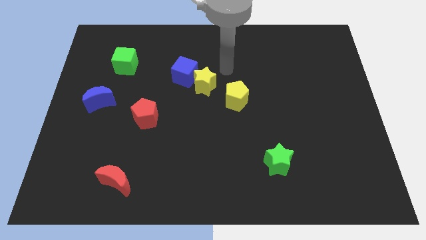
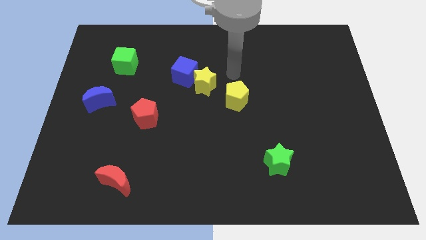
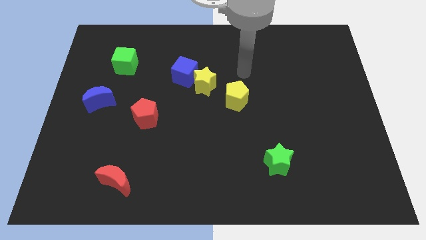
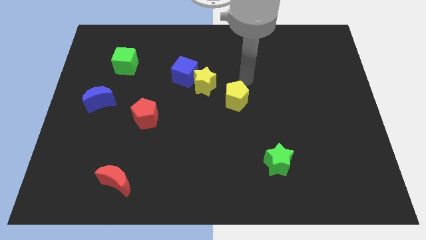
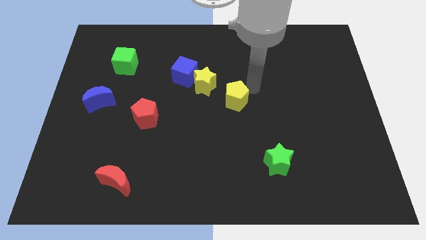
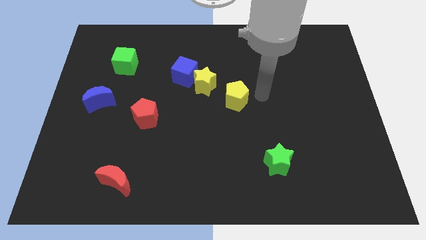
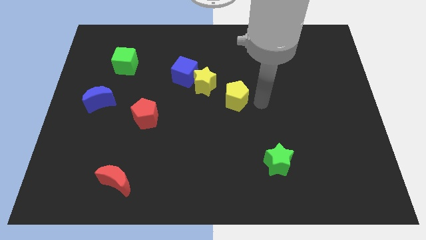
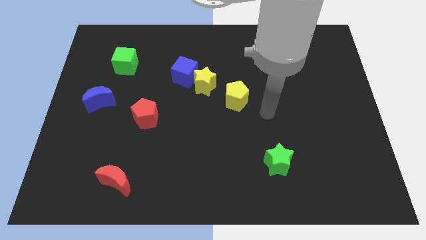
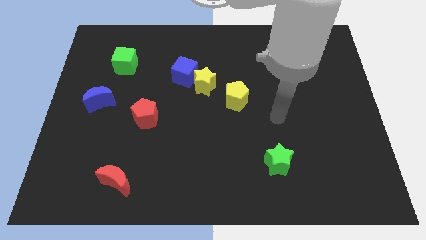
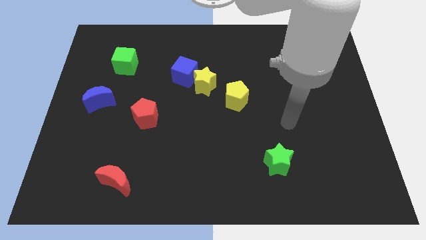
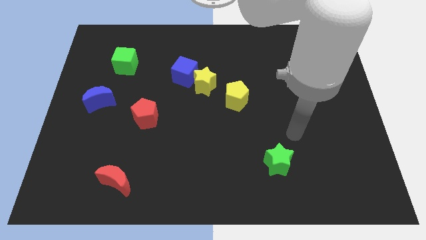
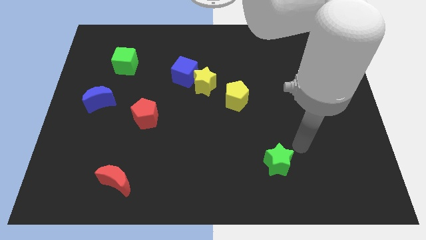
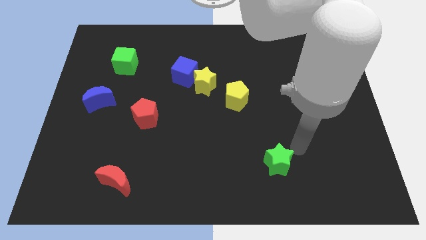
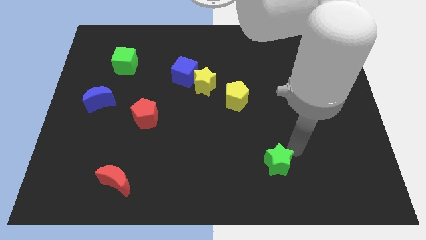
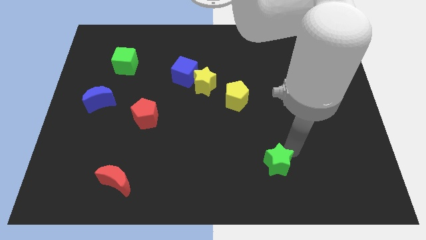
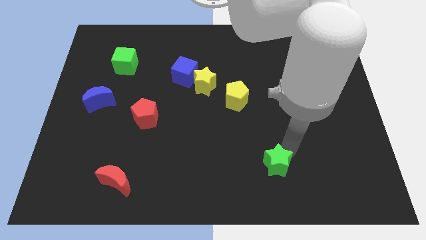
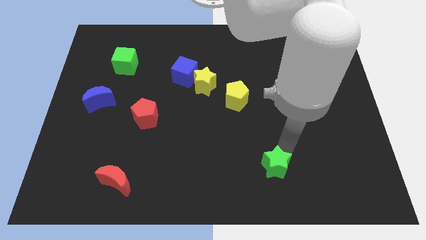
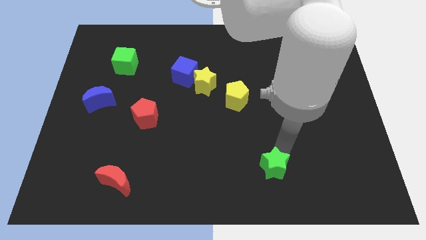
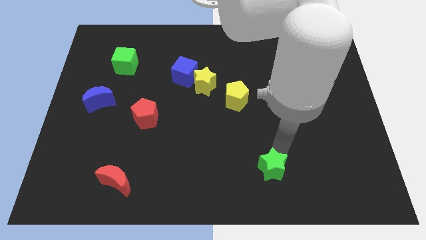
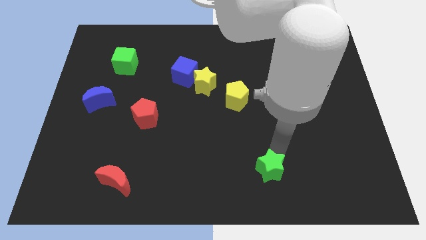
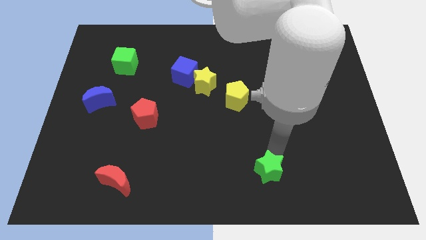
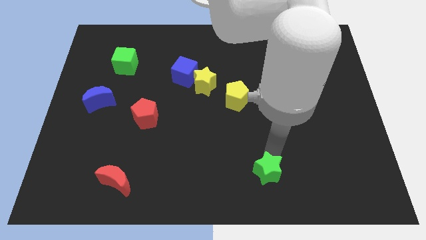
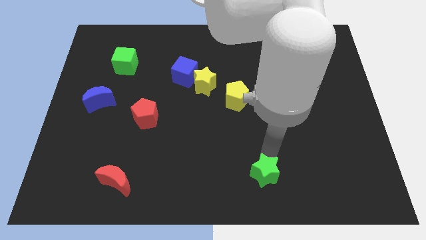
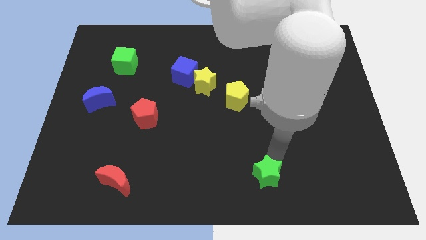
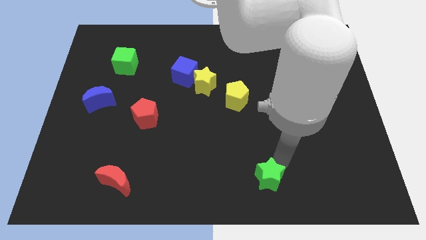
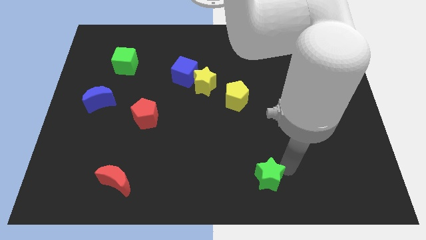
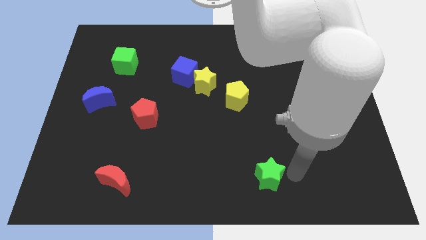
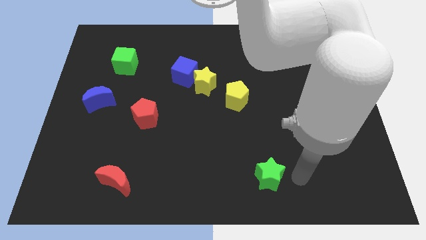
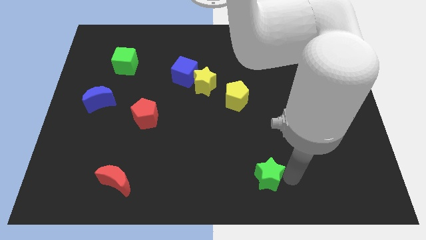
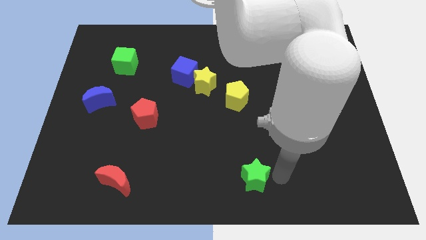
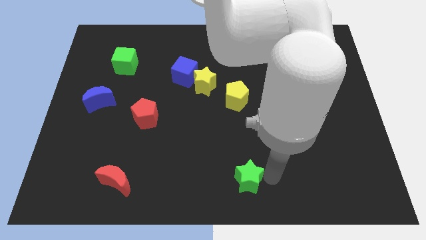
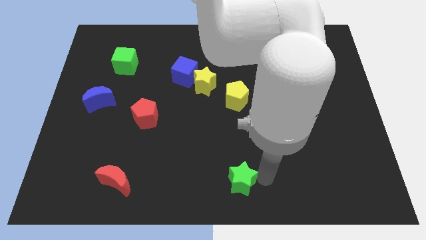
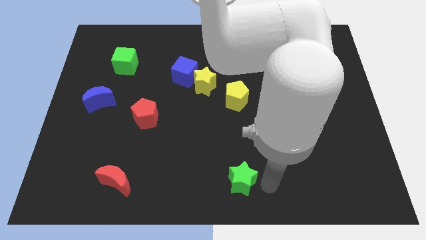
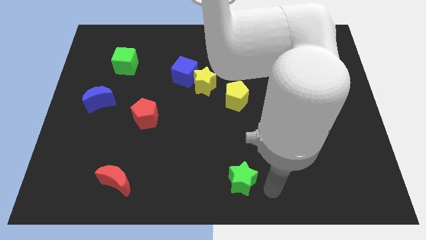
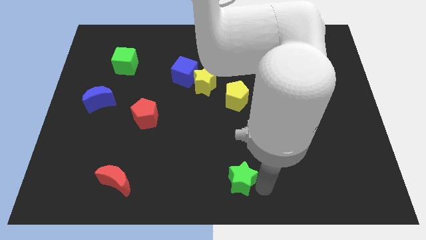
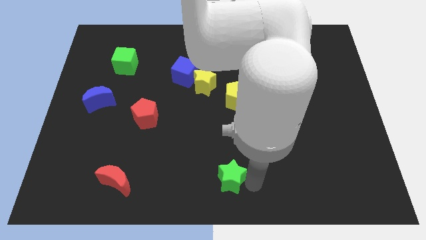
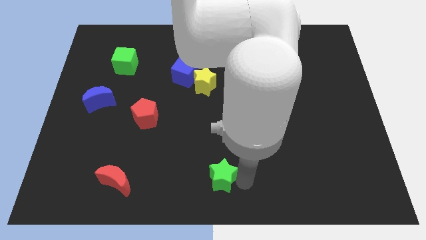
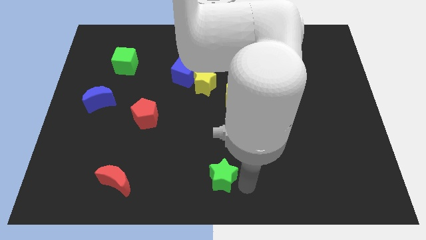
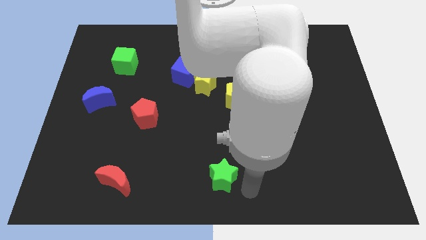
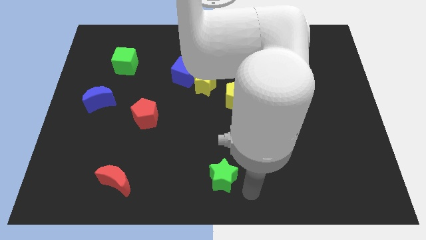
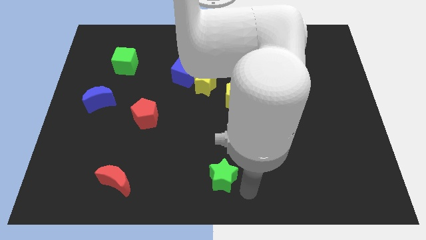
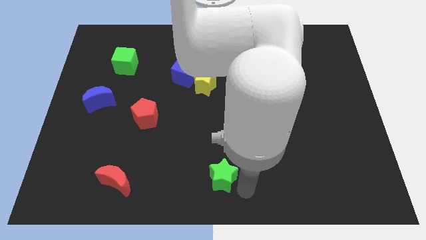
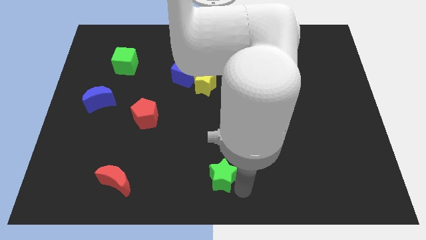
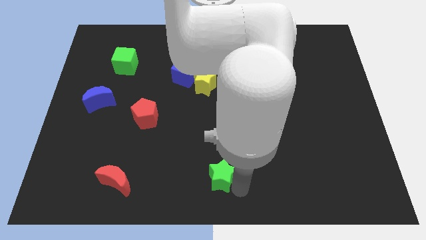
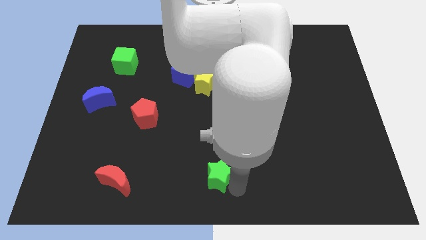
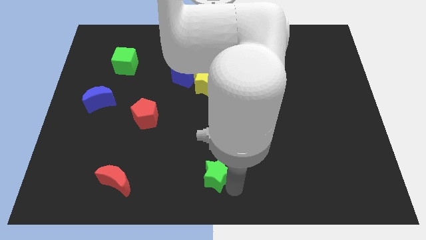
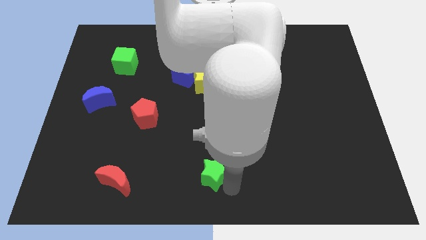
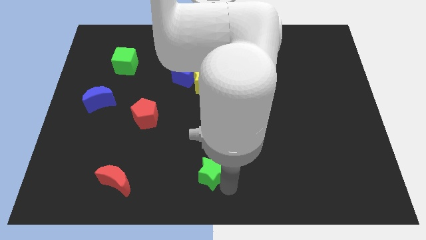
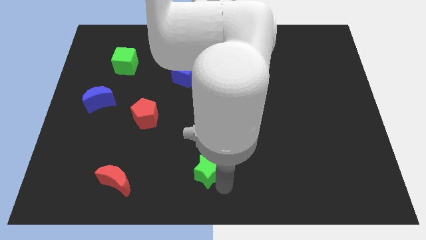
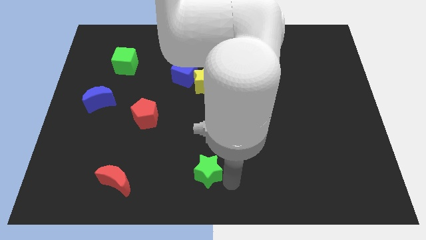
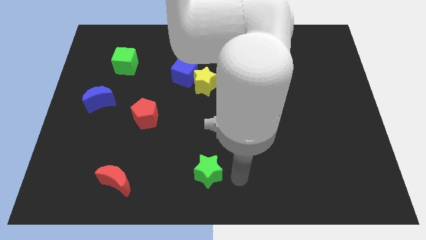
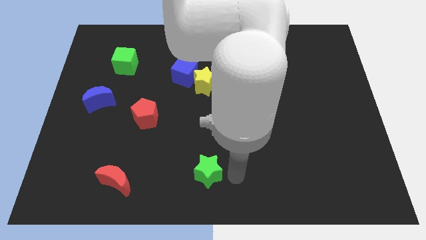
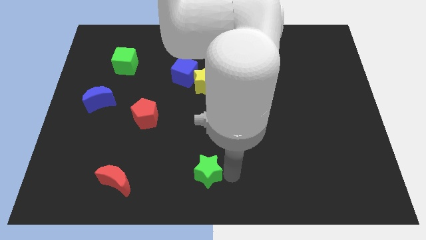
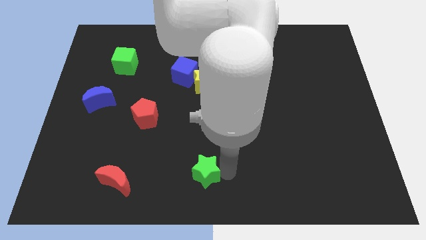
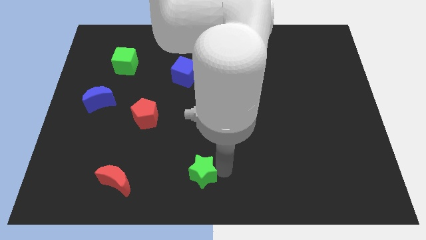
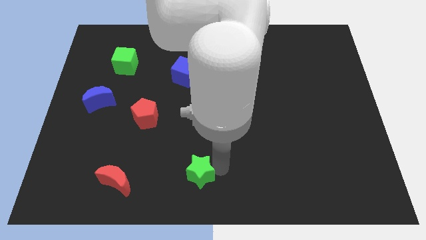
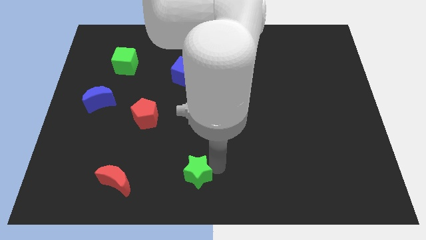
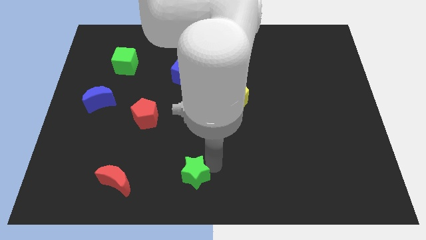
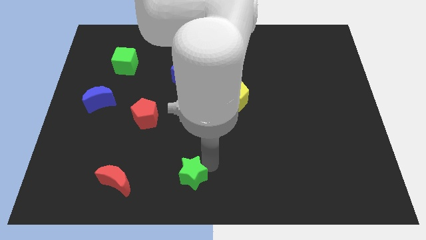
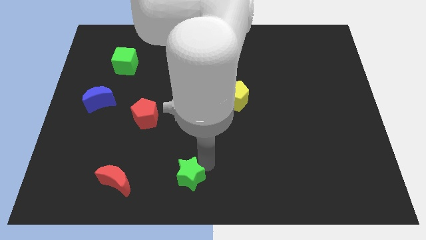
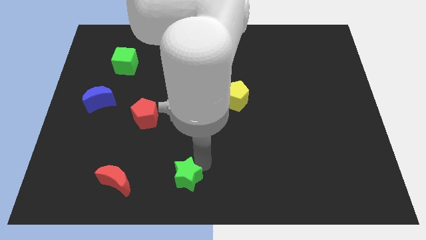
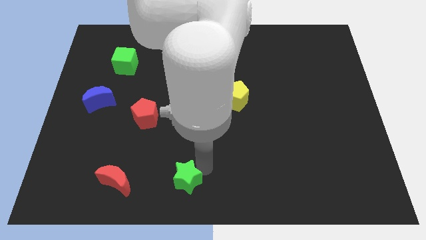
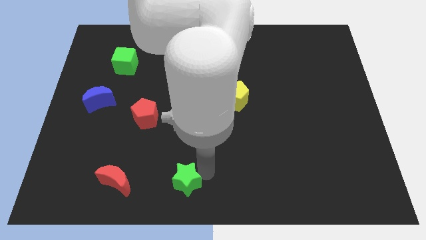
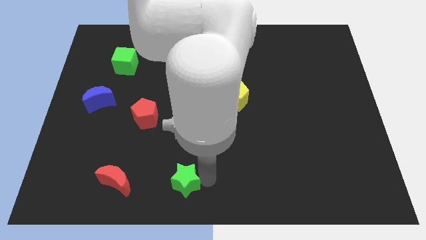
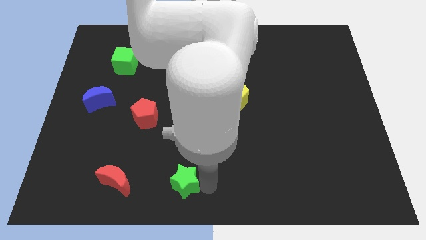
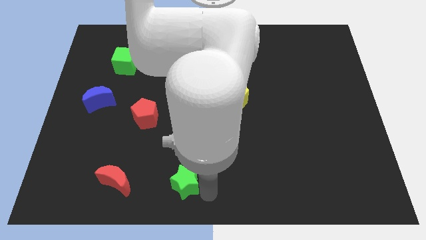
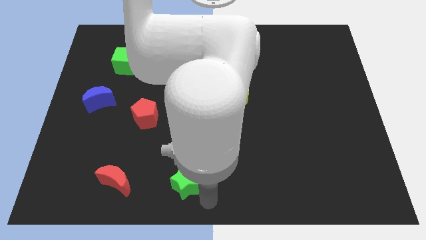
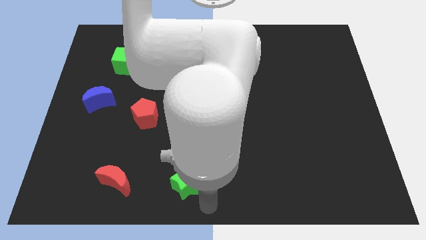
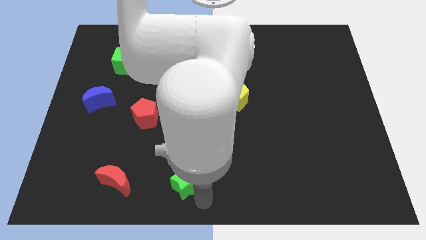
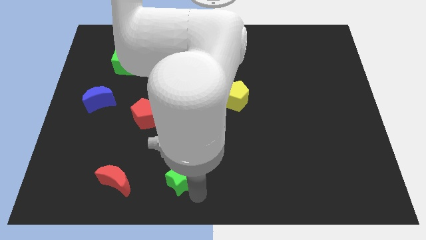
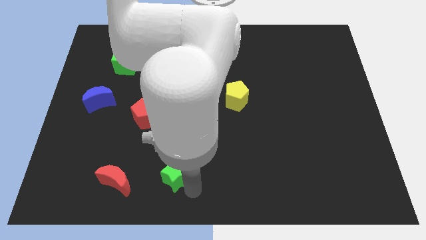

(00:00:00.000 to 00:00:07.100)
push the green star left

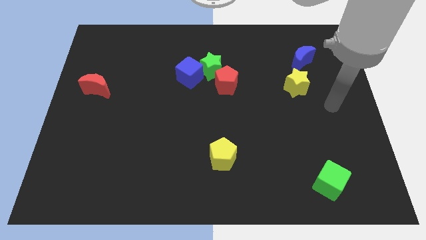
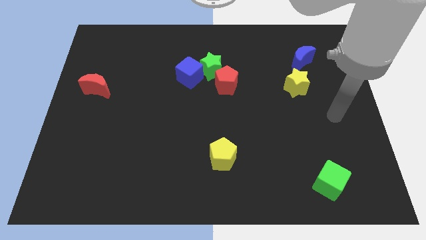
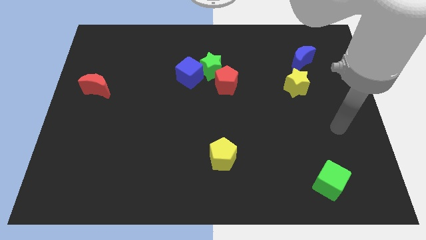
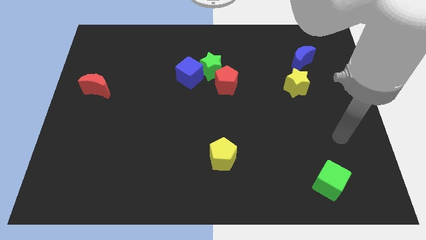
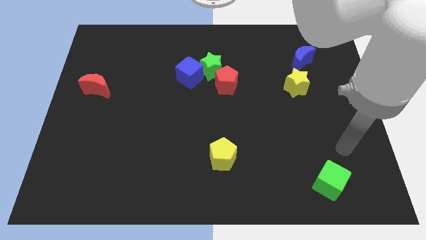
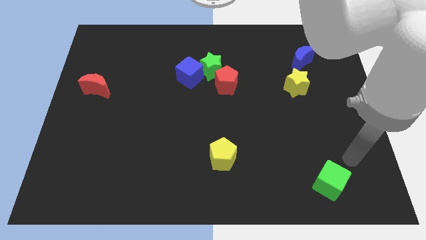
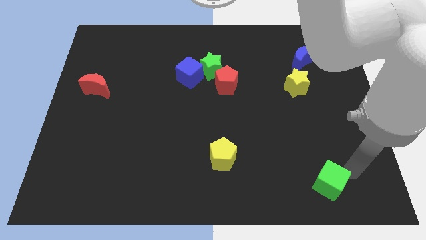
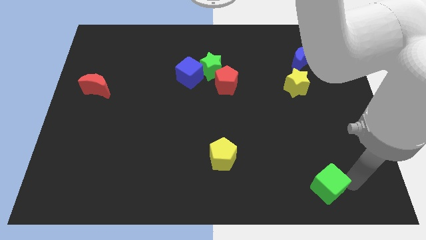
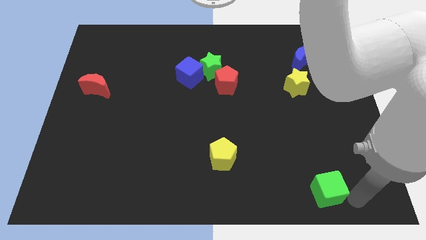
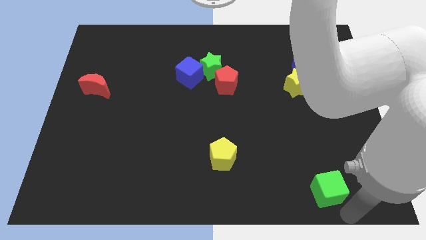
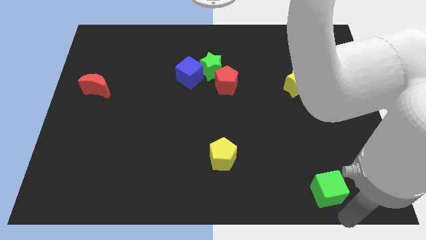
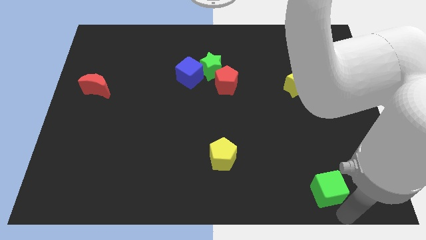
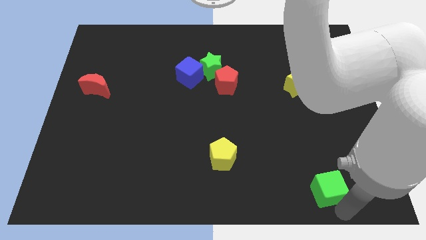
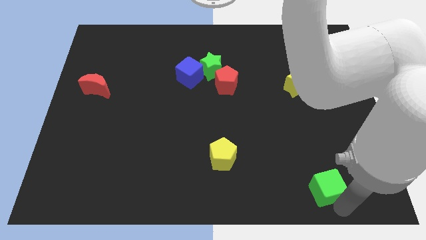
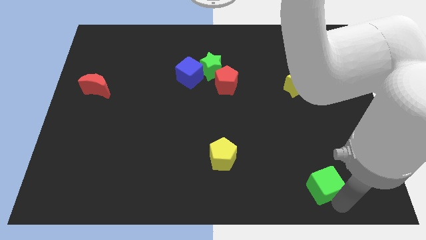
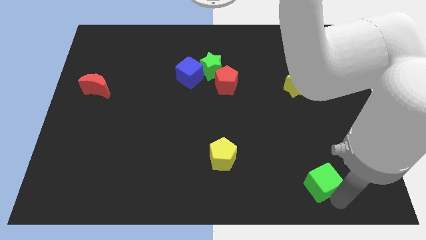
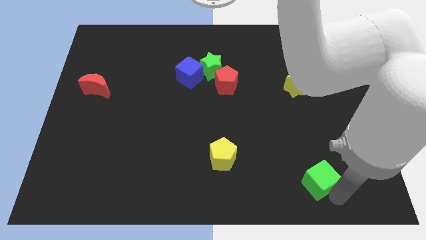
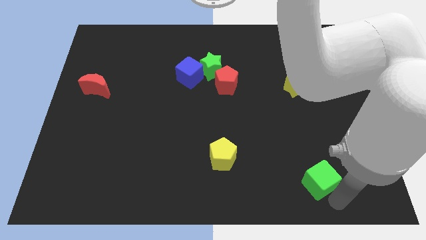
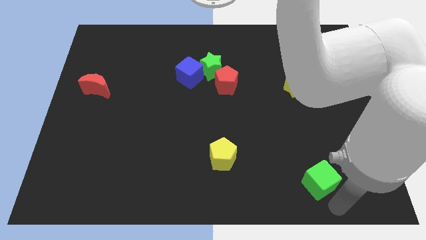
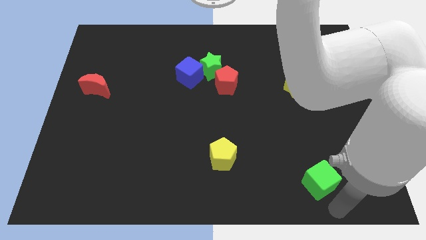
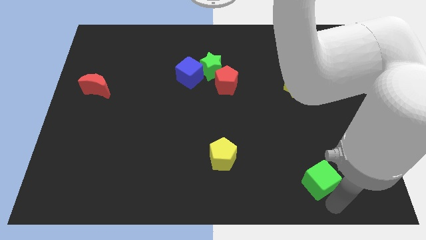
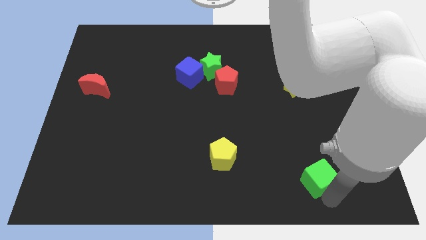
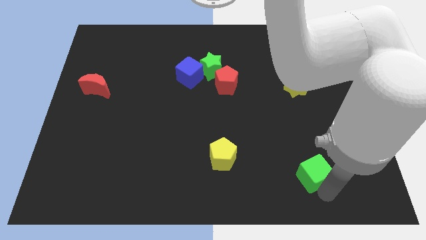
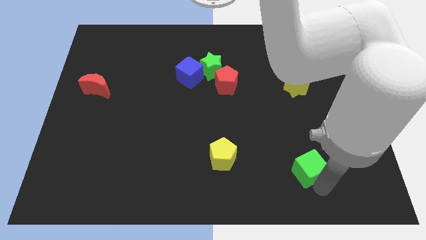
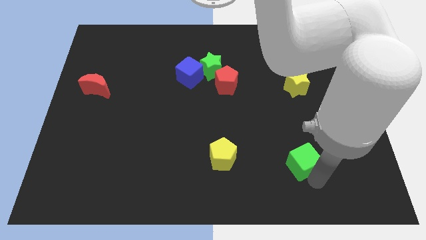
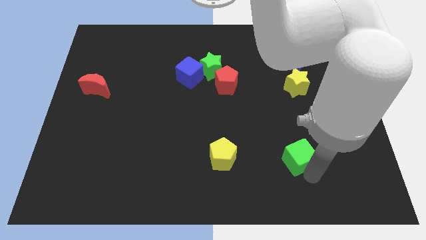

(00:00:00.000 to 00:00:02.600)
push the green cube upwards and left diagonally a bit
